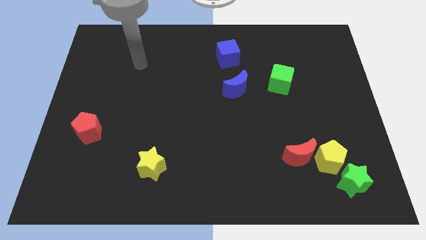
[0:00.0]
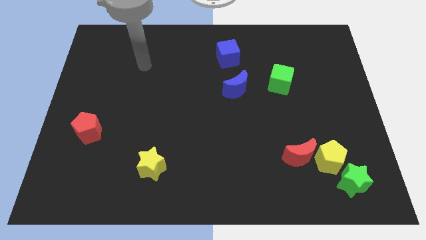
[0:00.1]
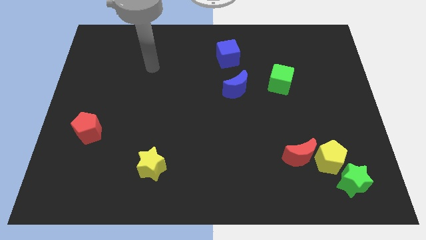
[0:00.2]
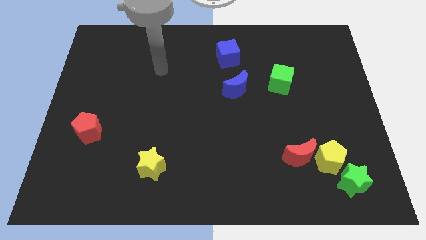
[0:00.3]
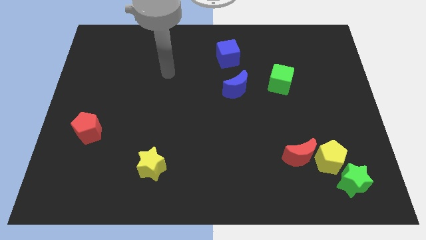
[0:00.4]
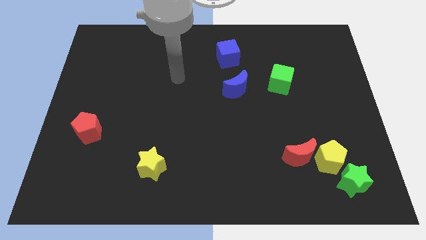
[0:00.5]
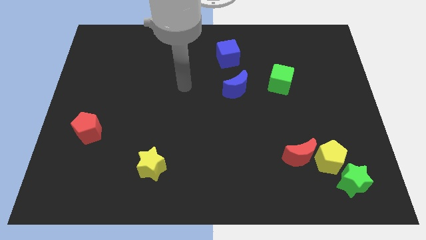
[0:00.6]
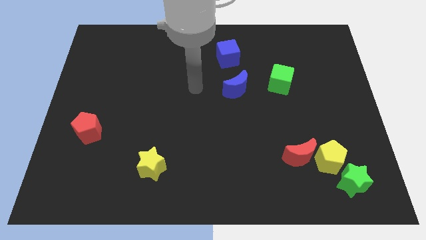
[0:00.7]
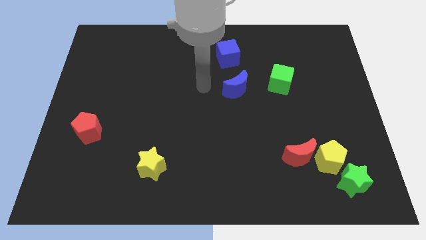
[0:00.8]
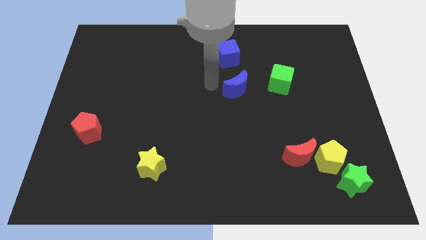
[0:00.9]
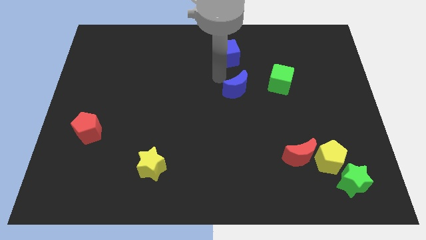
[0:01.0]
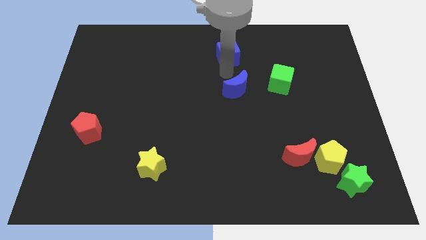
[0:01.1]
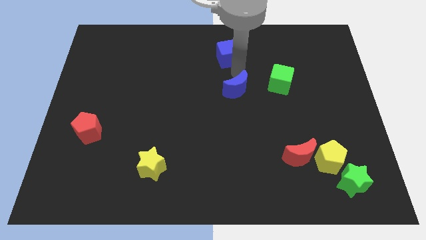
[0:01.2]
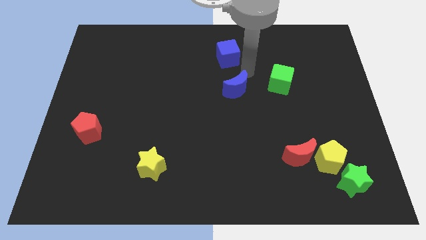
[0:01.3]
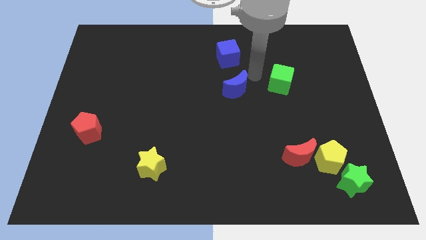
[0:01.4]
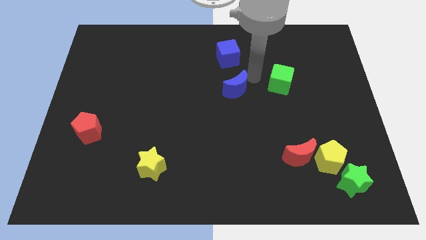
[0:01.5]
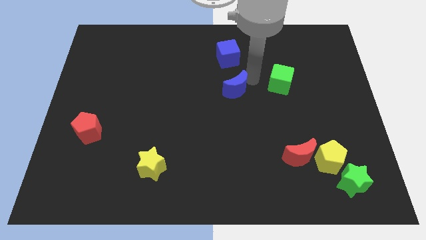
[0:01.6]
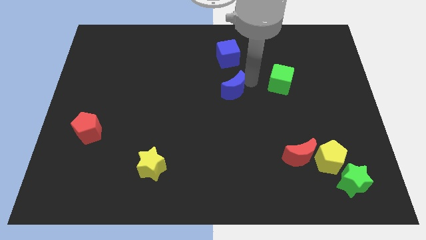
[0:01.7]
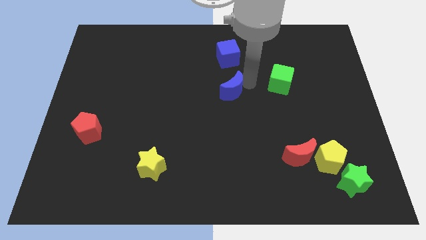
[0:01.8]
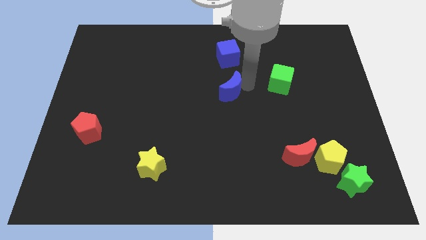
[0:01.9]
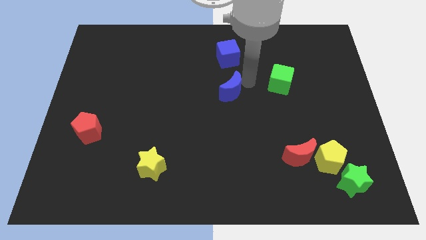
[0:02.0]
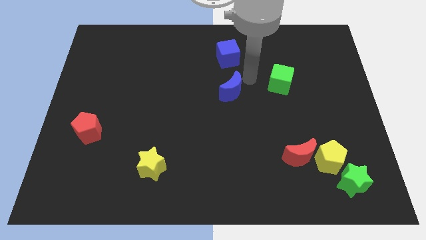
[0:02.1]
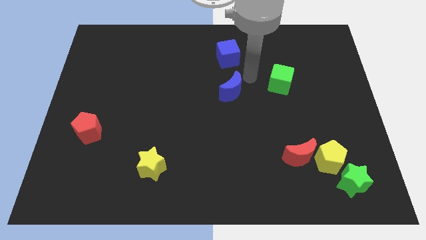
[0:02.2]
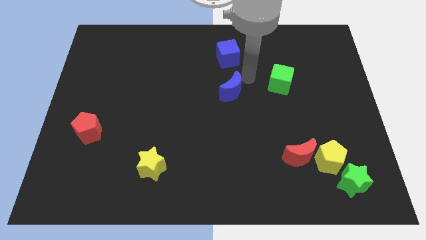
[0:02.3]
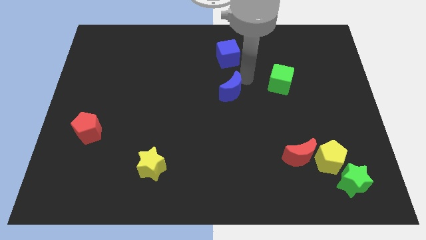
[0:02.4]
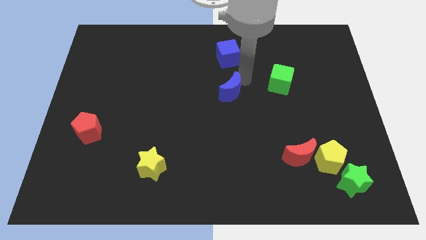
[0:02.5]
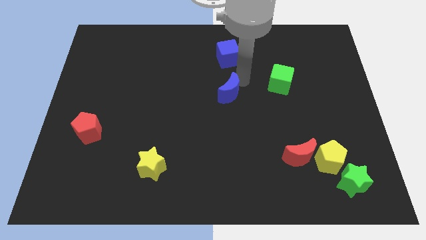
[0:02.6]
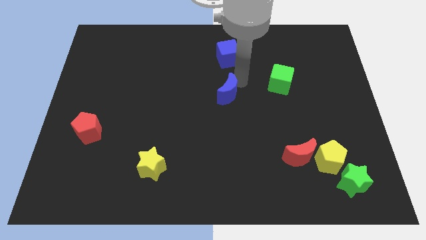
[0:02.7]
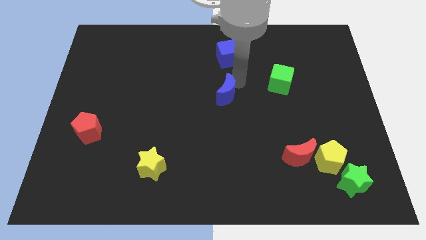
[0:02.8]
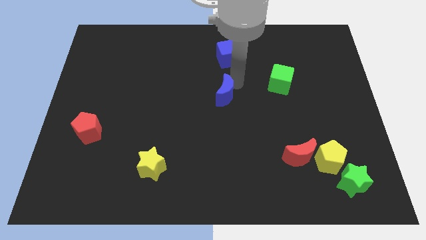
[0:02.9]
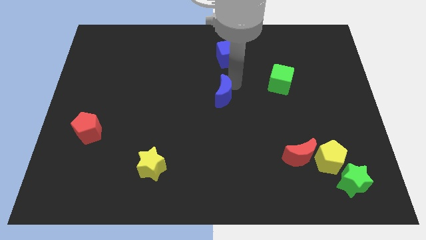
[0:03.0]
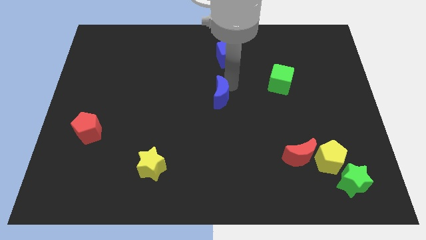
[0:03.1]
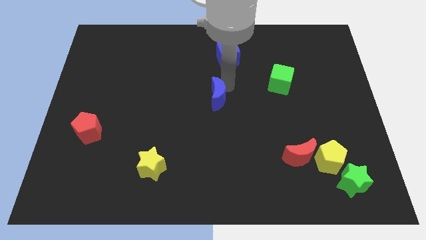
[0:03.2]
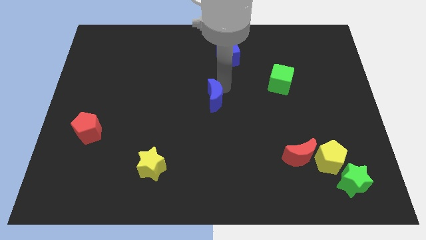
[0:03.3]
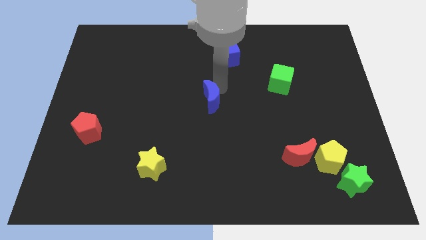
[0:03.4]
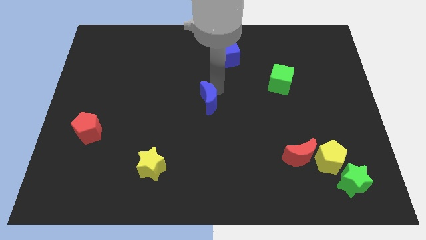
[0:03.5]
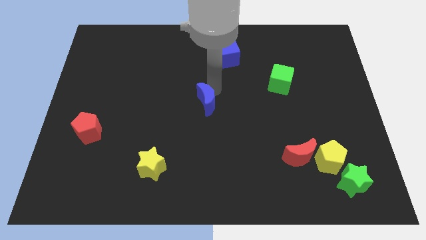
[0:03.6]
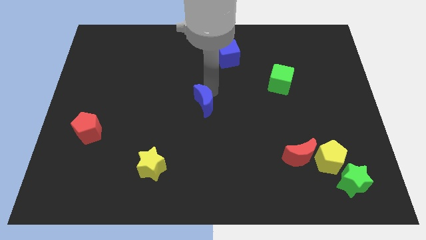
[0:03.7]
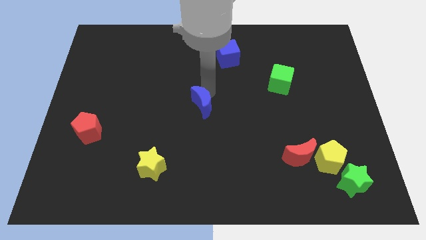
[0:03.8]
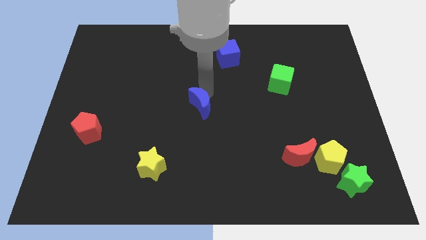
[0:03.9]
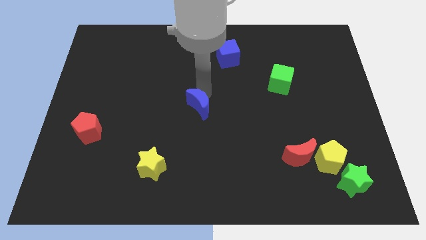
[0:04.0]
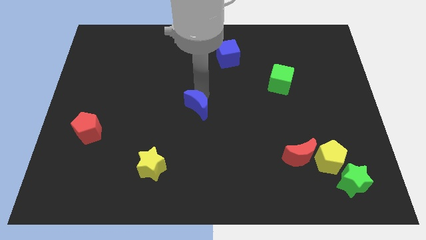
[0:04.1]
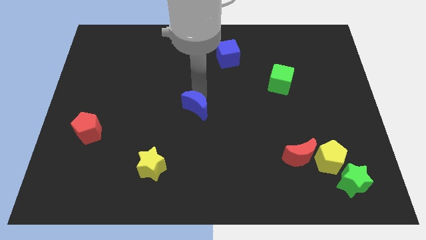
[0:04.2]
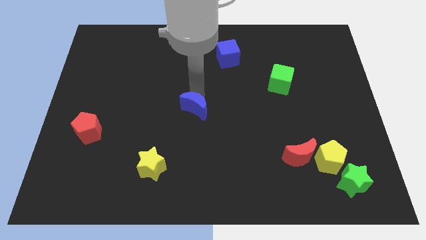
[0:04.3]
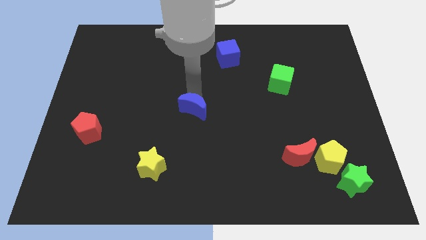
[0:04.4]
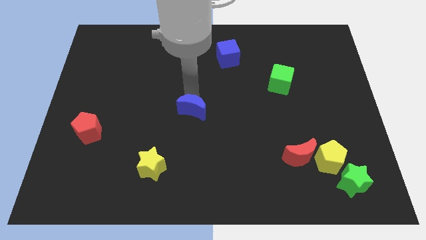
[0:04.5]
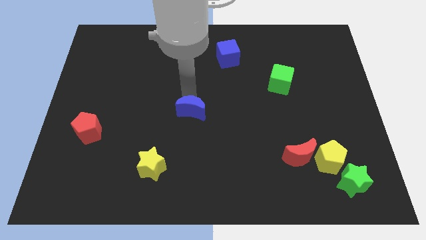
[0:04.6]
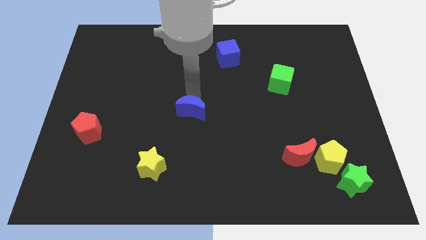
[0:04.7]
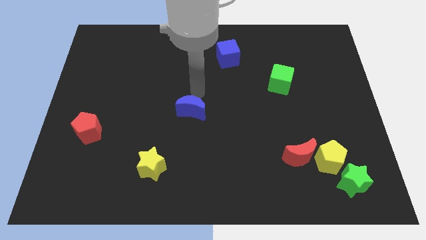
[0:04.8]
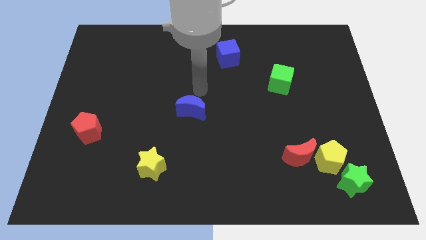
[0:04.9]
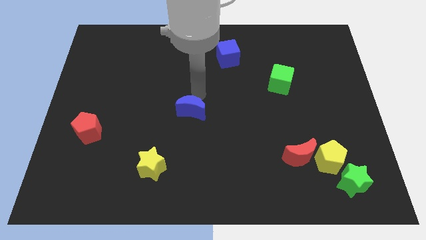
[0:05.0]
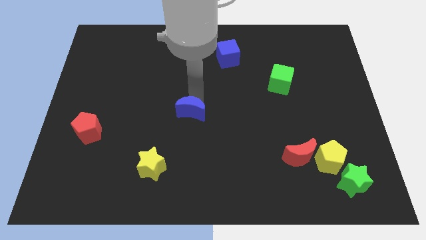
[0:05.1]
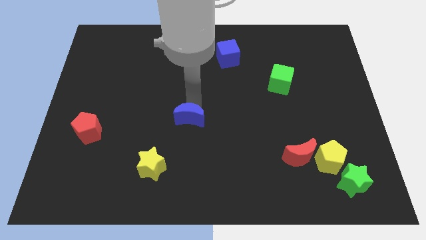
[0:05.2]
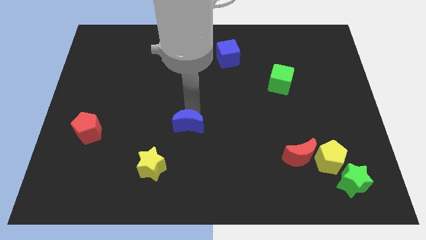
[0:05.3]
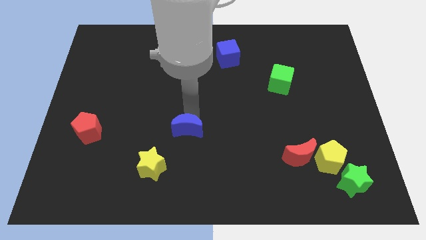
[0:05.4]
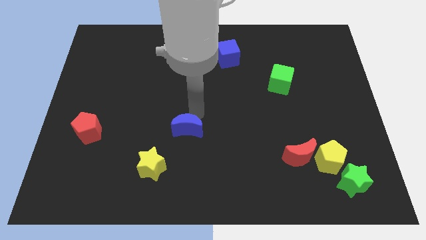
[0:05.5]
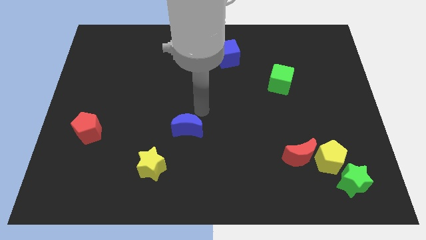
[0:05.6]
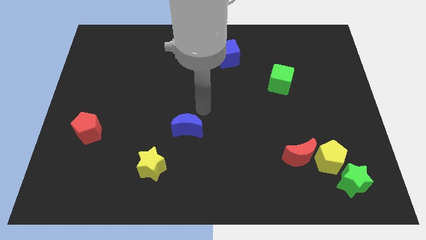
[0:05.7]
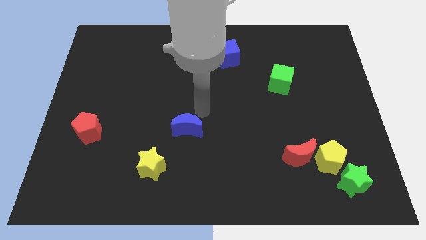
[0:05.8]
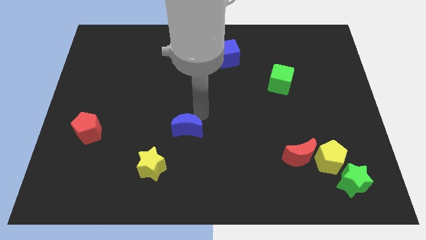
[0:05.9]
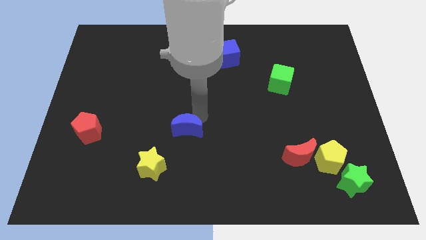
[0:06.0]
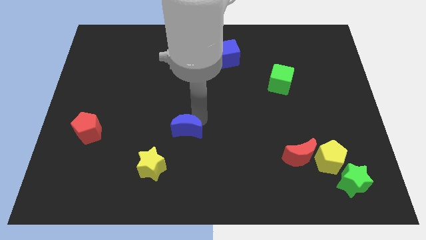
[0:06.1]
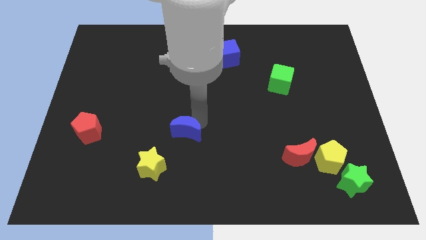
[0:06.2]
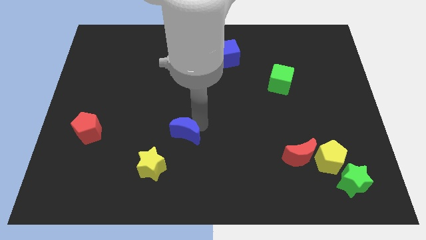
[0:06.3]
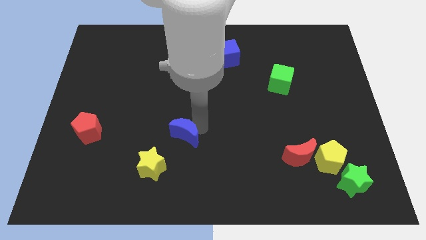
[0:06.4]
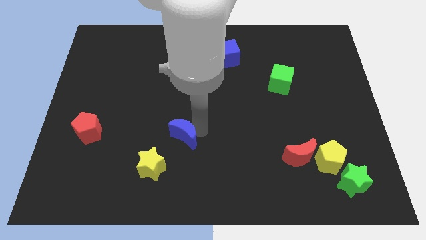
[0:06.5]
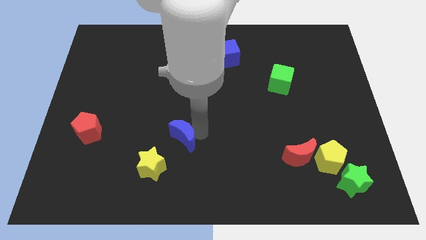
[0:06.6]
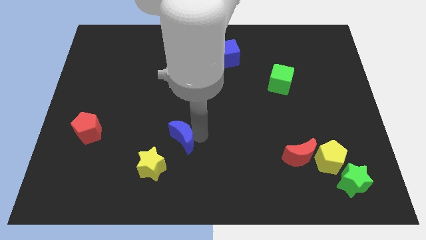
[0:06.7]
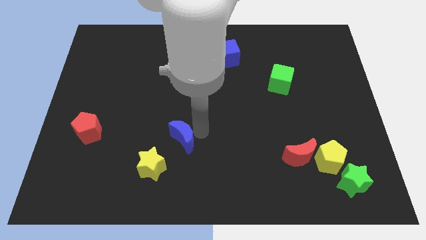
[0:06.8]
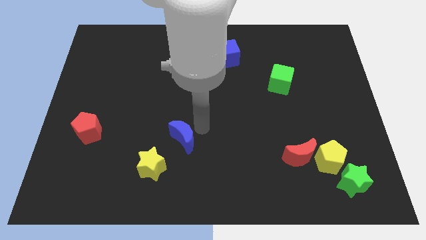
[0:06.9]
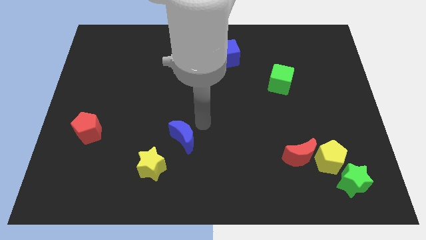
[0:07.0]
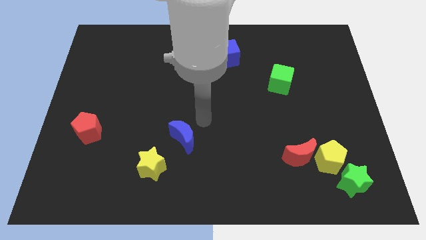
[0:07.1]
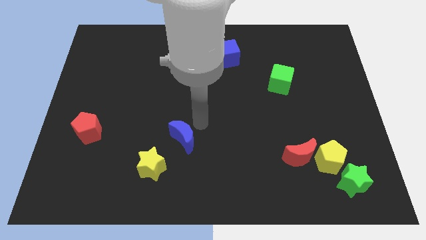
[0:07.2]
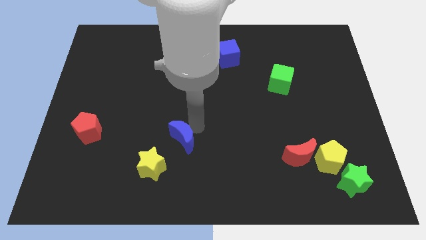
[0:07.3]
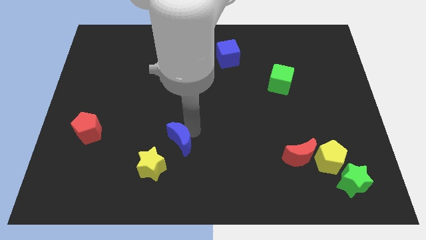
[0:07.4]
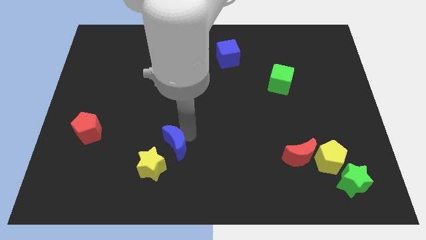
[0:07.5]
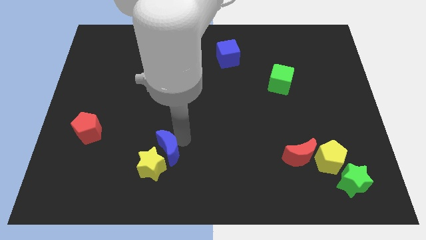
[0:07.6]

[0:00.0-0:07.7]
push the blue moon towards the yellow star

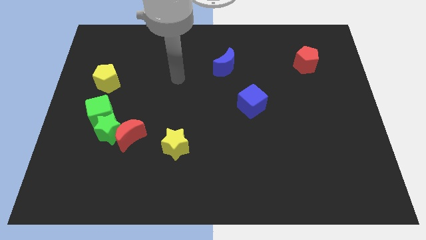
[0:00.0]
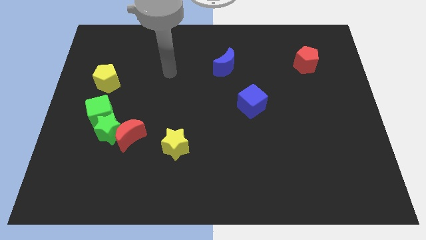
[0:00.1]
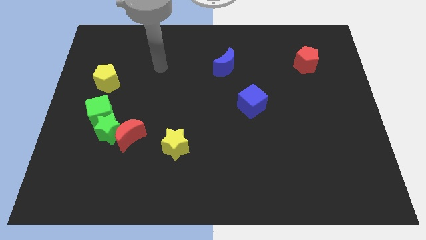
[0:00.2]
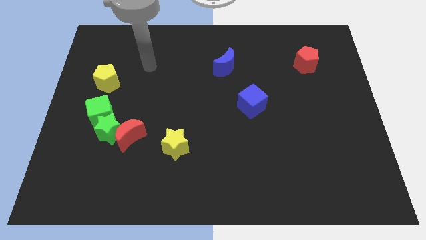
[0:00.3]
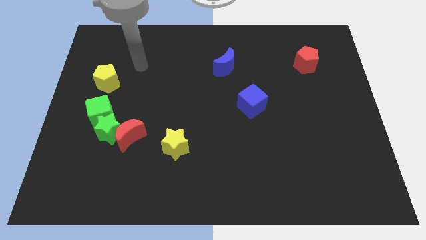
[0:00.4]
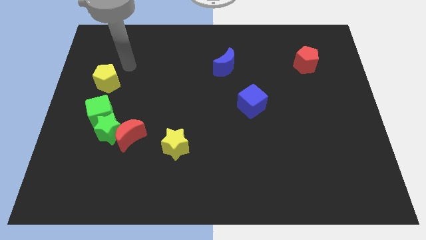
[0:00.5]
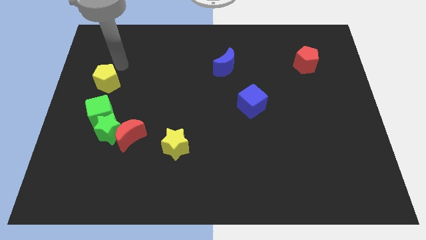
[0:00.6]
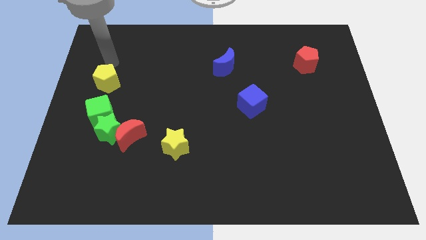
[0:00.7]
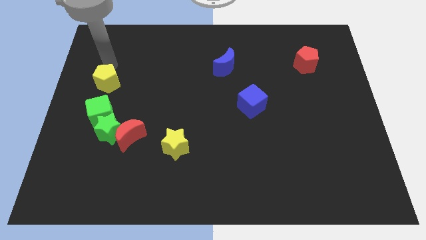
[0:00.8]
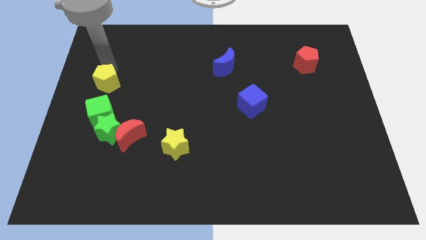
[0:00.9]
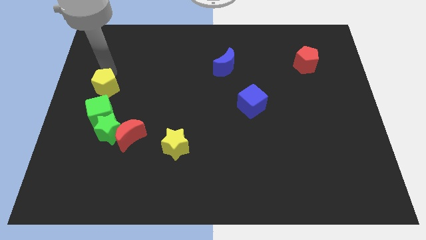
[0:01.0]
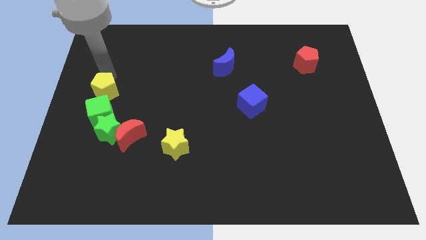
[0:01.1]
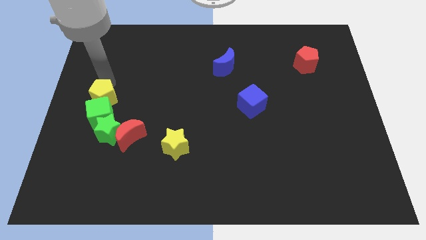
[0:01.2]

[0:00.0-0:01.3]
push the yellow pentagon towards the green cube
